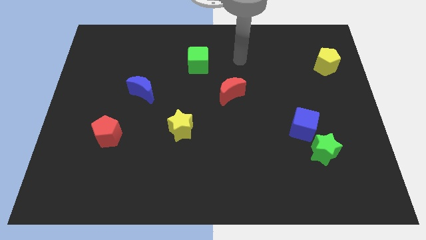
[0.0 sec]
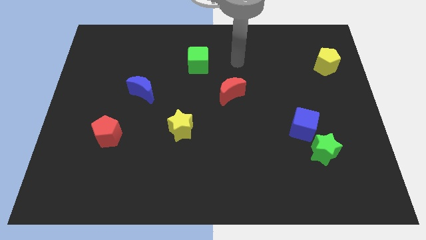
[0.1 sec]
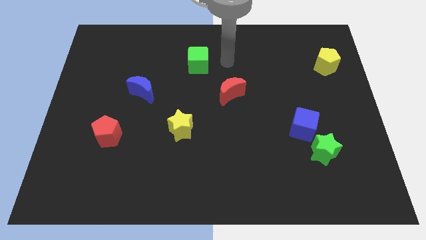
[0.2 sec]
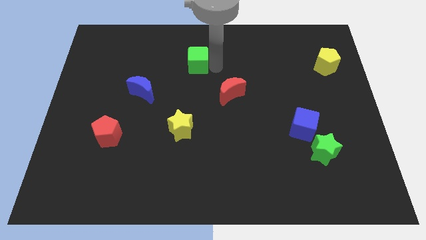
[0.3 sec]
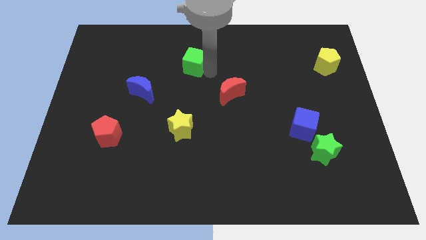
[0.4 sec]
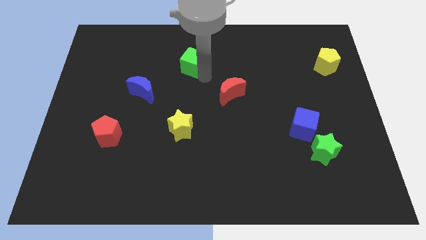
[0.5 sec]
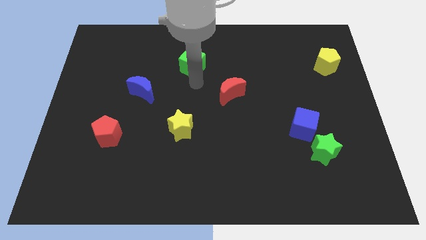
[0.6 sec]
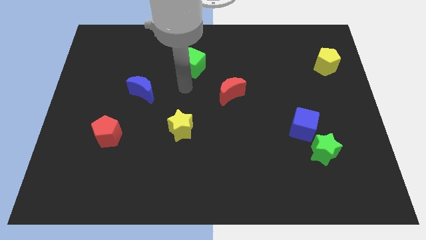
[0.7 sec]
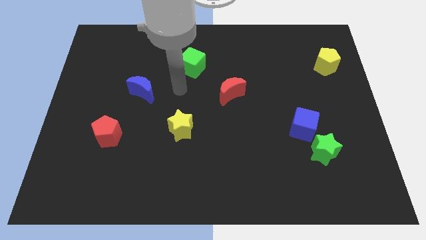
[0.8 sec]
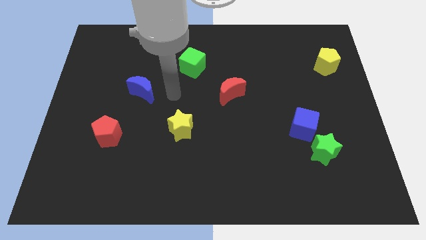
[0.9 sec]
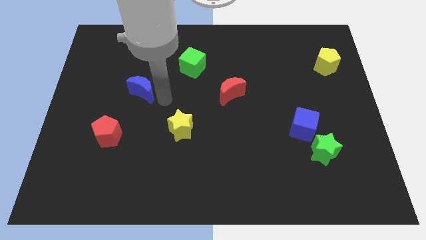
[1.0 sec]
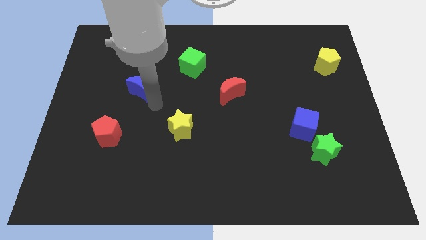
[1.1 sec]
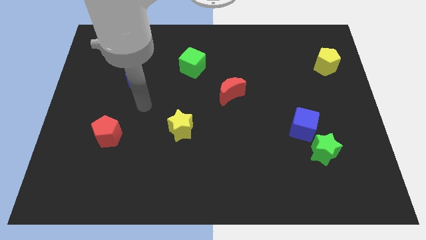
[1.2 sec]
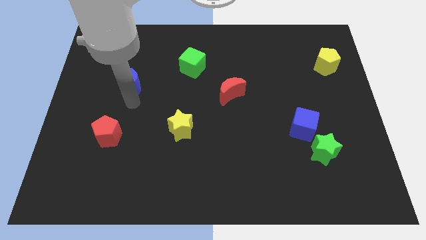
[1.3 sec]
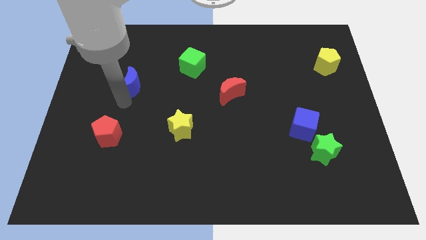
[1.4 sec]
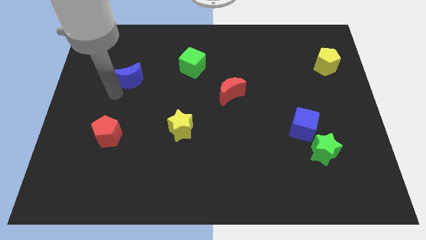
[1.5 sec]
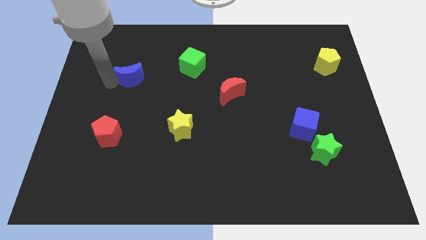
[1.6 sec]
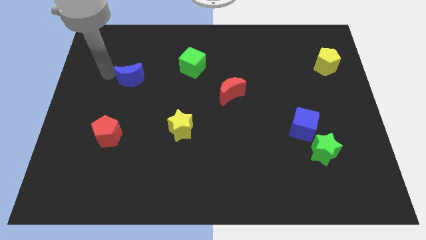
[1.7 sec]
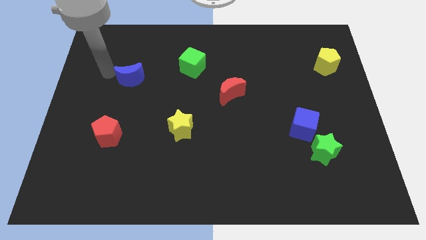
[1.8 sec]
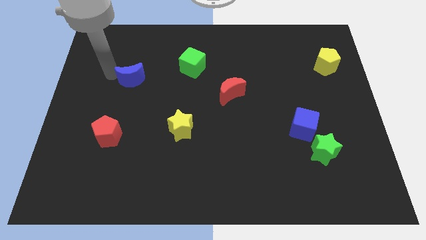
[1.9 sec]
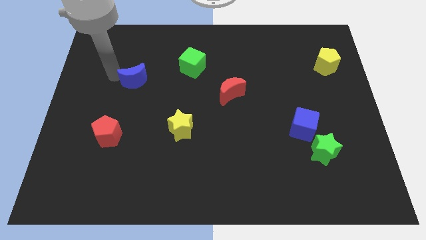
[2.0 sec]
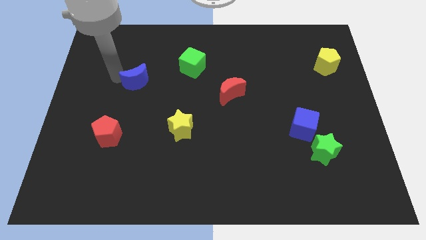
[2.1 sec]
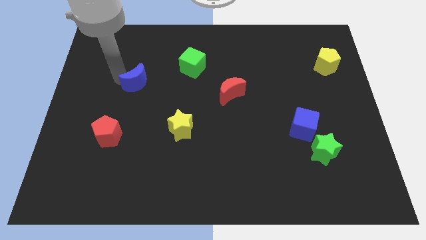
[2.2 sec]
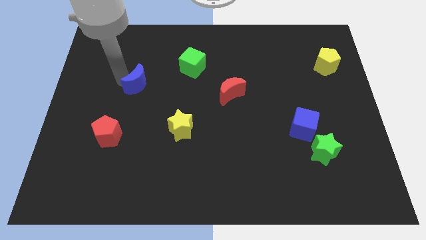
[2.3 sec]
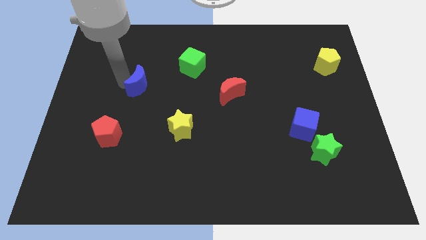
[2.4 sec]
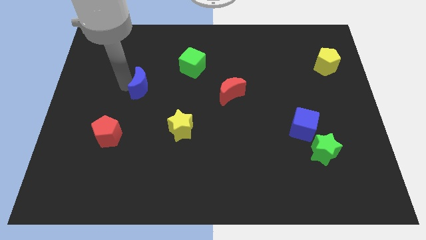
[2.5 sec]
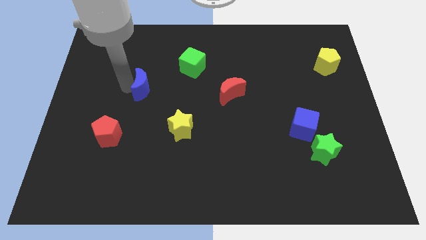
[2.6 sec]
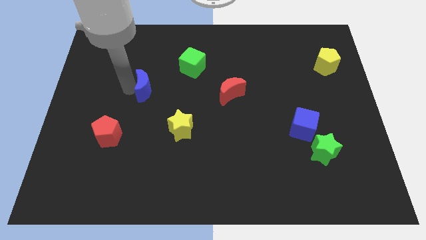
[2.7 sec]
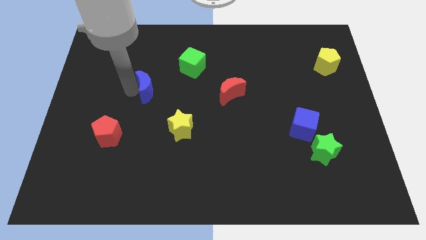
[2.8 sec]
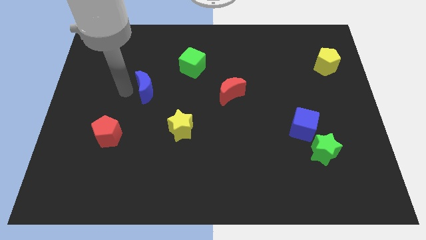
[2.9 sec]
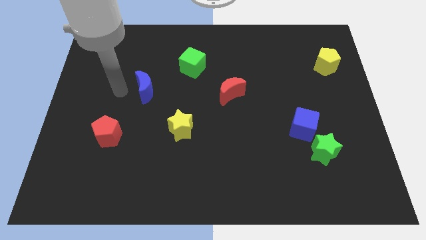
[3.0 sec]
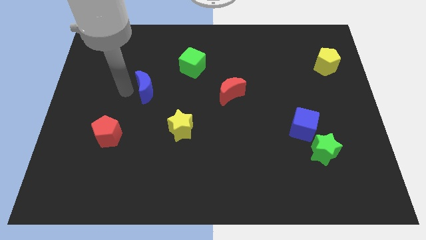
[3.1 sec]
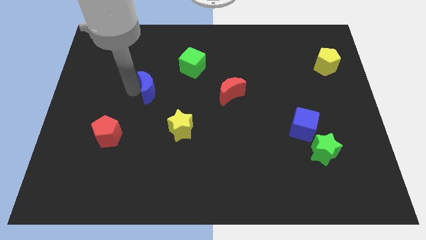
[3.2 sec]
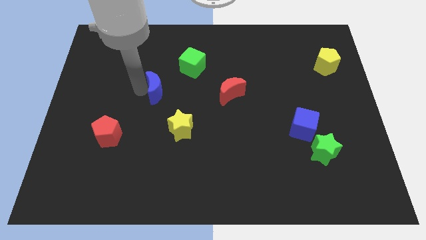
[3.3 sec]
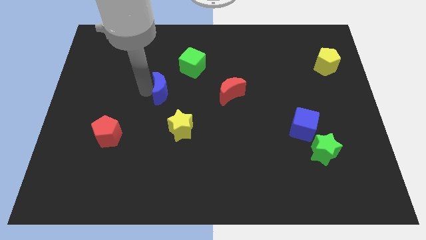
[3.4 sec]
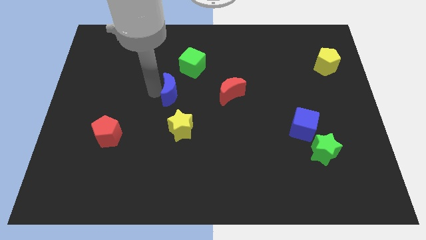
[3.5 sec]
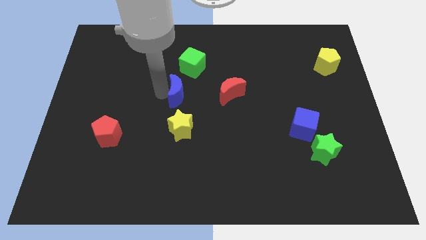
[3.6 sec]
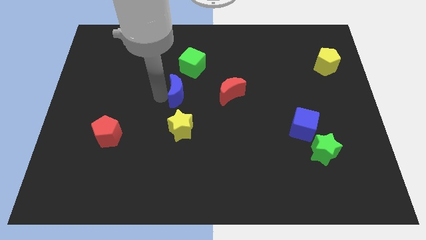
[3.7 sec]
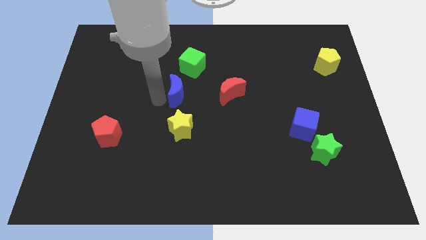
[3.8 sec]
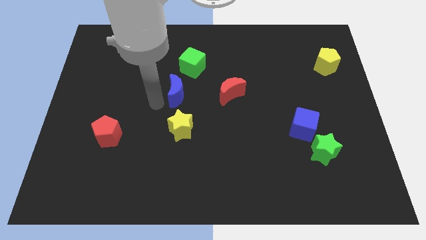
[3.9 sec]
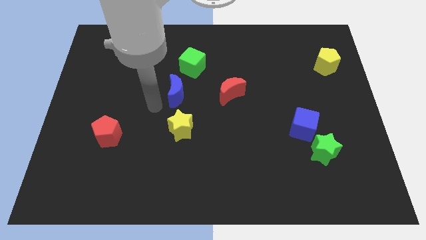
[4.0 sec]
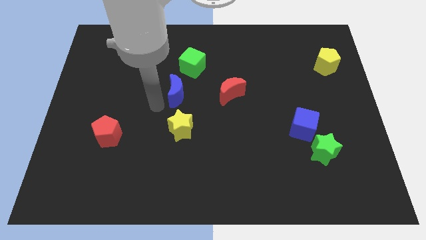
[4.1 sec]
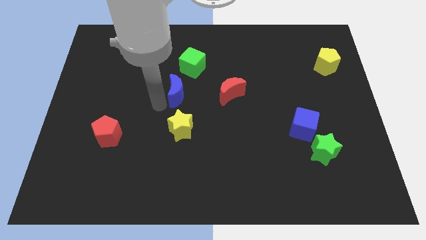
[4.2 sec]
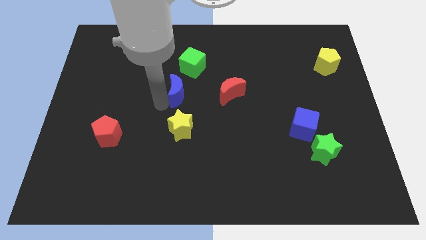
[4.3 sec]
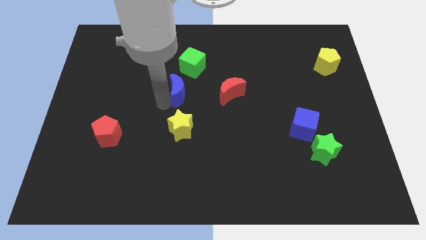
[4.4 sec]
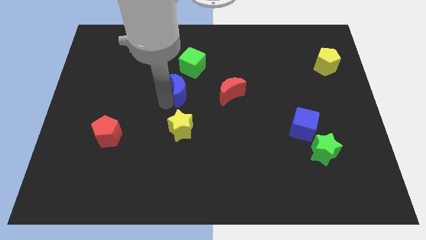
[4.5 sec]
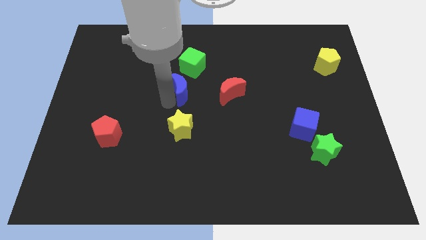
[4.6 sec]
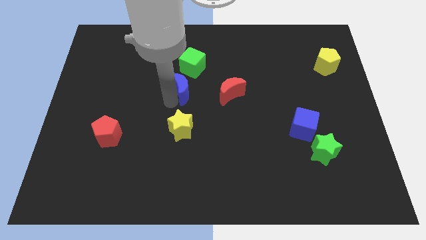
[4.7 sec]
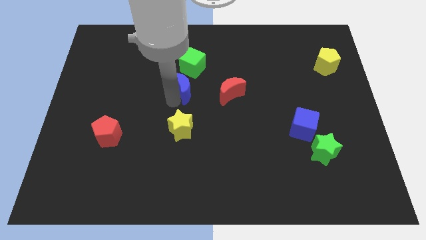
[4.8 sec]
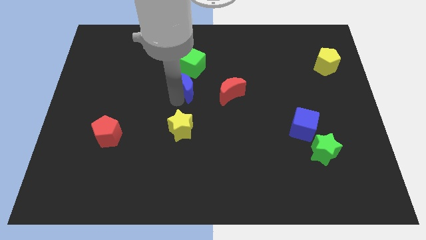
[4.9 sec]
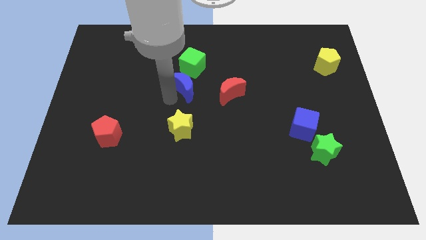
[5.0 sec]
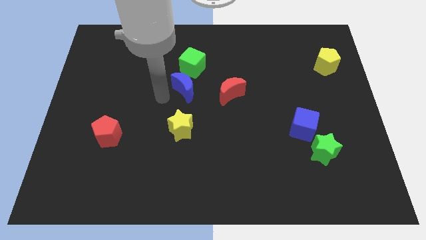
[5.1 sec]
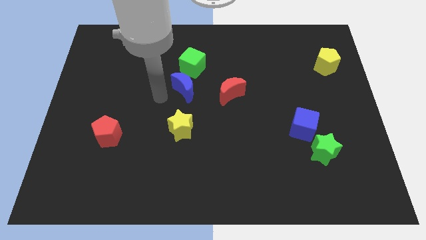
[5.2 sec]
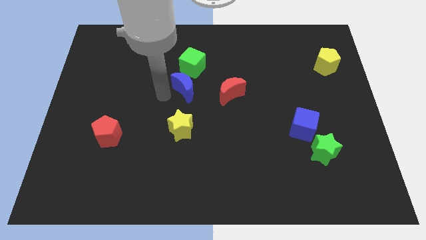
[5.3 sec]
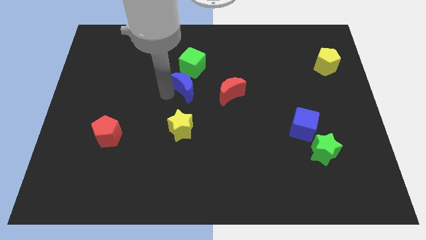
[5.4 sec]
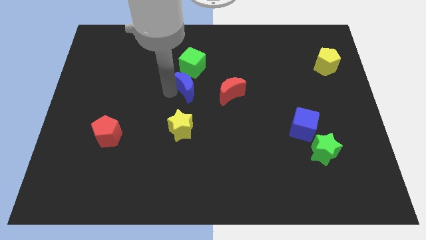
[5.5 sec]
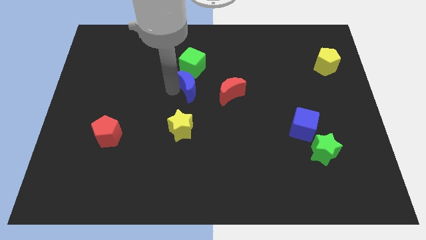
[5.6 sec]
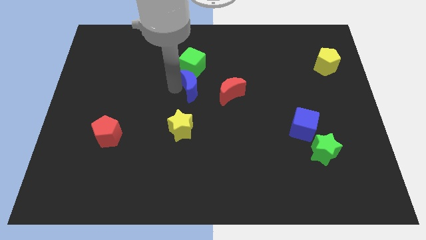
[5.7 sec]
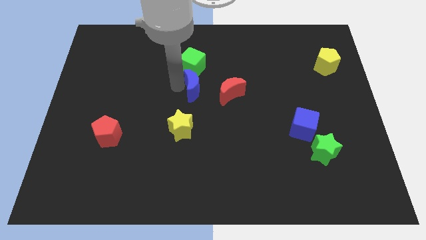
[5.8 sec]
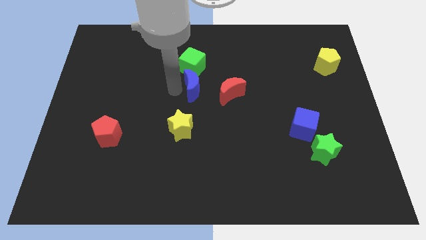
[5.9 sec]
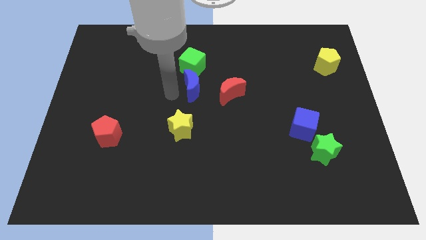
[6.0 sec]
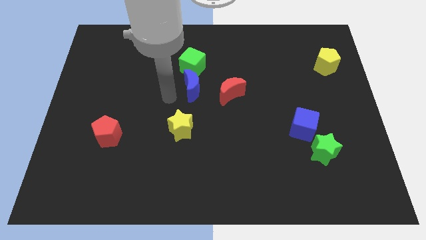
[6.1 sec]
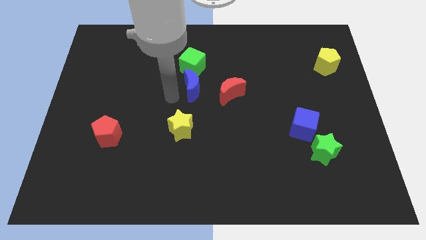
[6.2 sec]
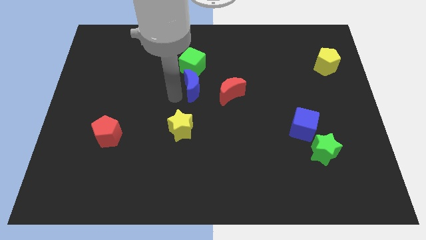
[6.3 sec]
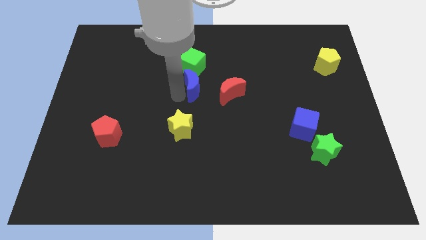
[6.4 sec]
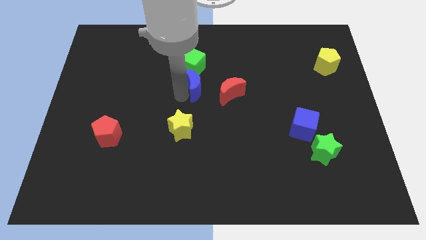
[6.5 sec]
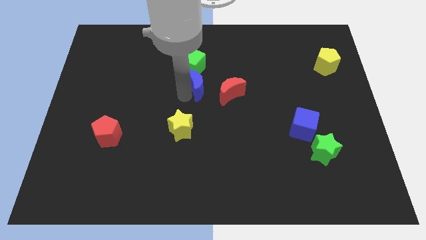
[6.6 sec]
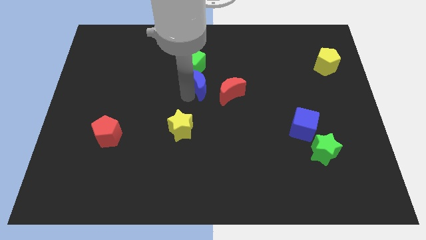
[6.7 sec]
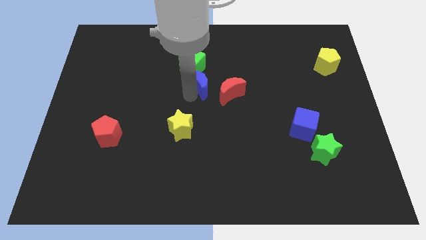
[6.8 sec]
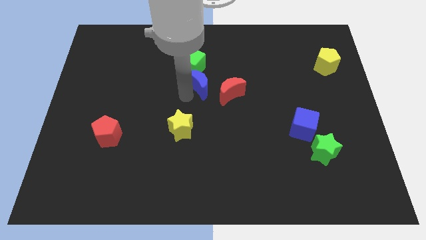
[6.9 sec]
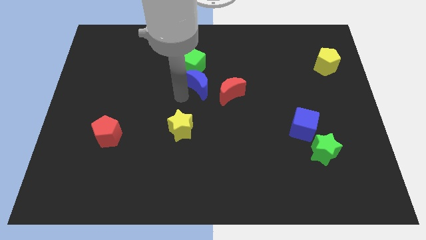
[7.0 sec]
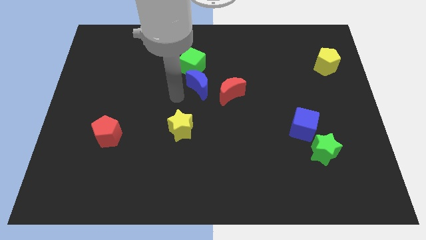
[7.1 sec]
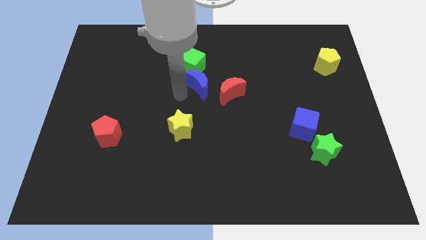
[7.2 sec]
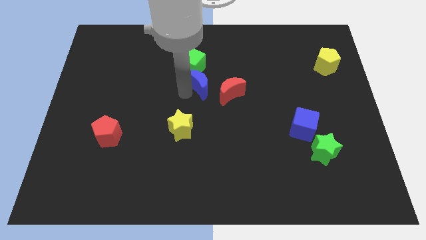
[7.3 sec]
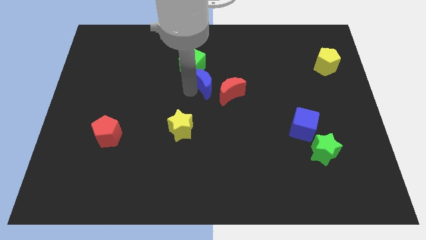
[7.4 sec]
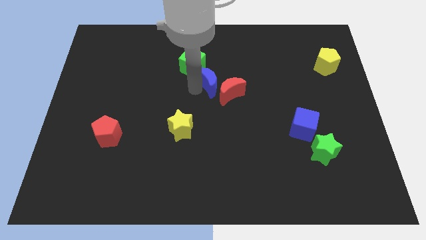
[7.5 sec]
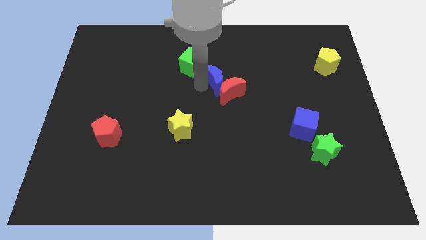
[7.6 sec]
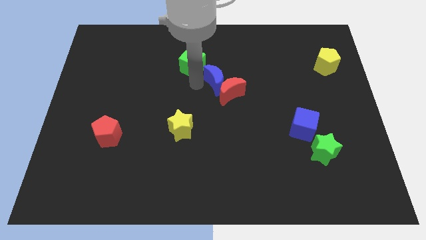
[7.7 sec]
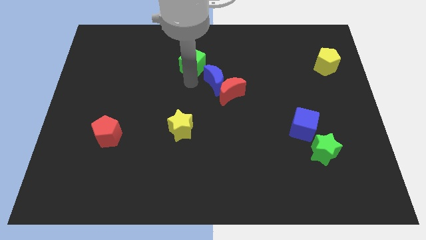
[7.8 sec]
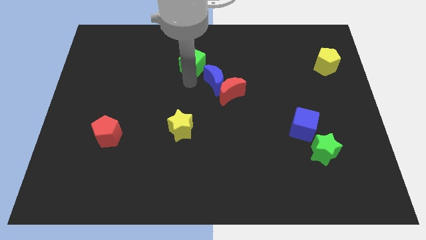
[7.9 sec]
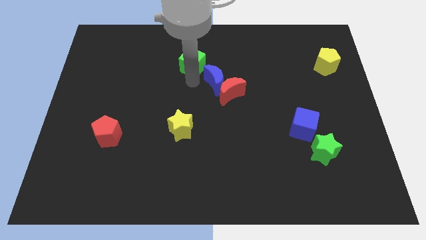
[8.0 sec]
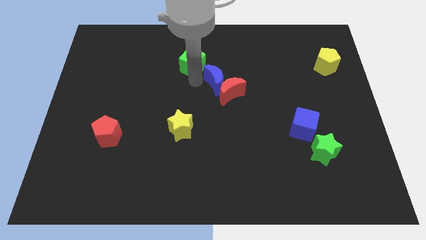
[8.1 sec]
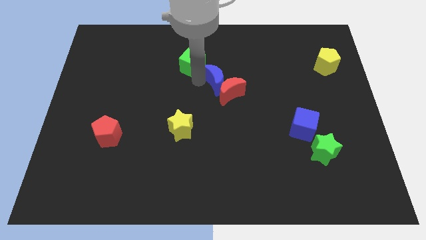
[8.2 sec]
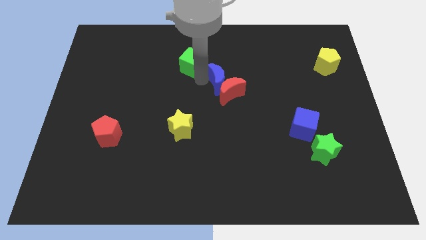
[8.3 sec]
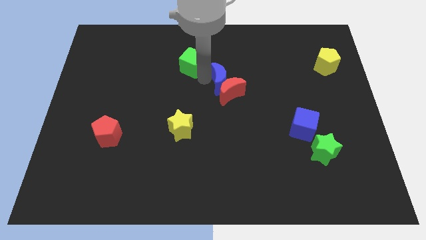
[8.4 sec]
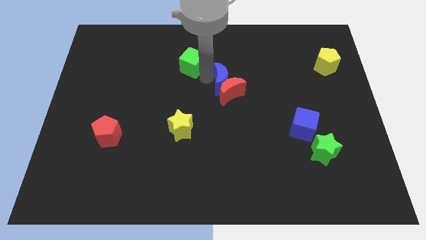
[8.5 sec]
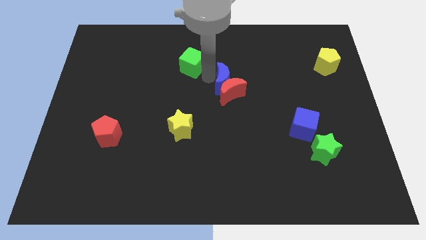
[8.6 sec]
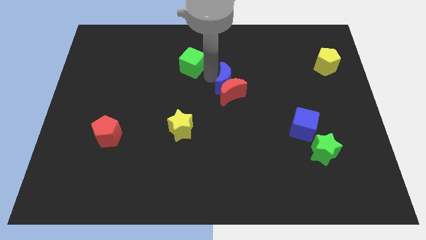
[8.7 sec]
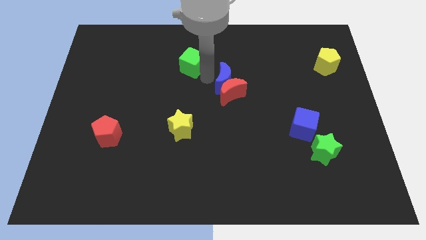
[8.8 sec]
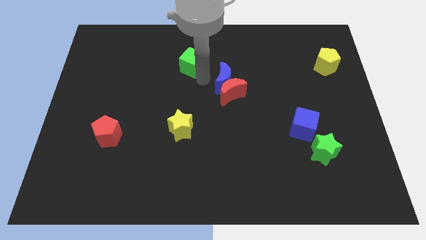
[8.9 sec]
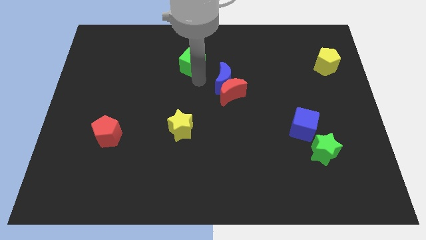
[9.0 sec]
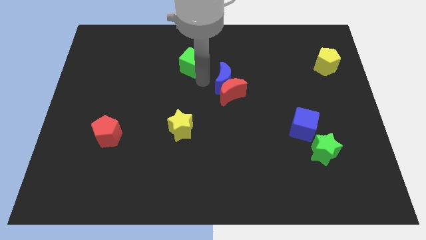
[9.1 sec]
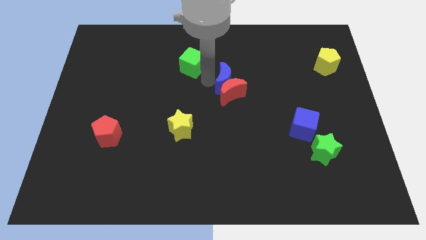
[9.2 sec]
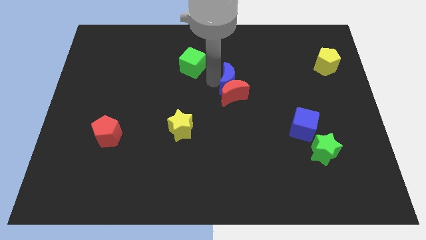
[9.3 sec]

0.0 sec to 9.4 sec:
move the blue moon right
